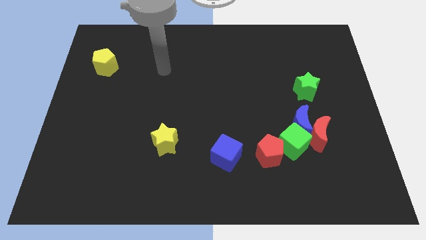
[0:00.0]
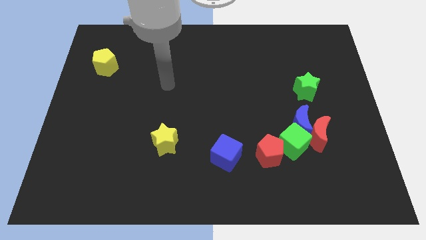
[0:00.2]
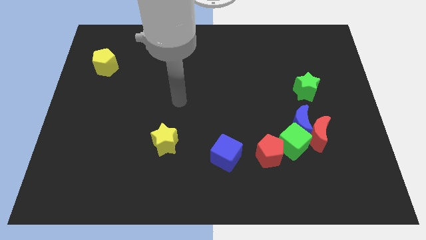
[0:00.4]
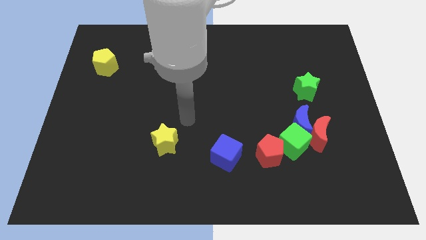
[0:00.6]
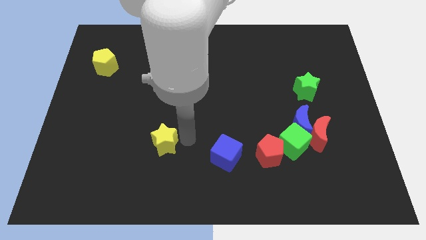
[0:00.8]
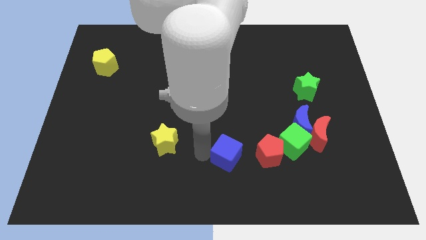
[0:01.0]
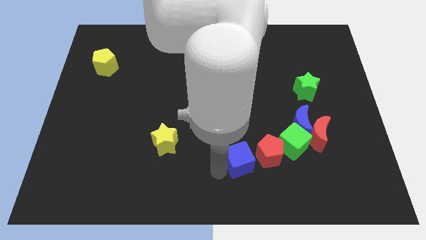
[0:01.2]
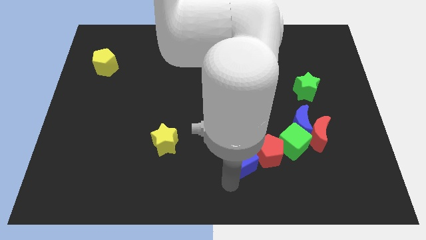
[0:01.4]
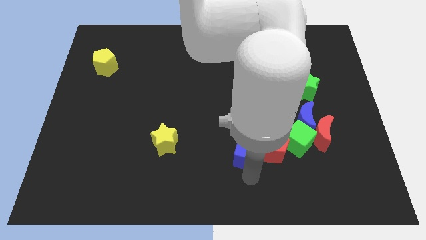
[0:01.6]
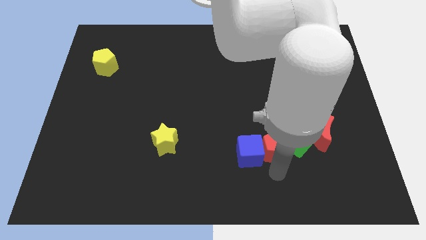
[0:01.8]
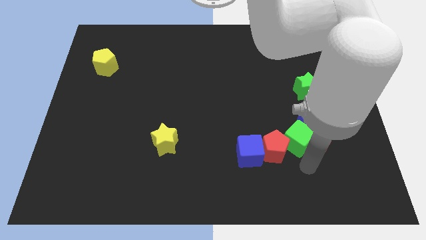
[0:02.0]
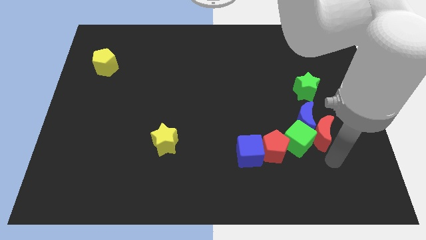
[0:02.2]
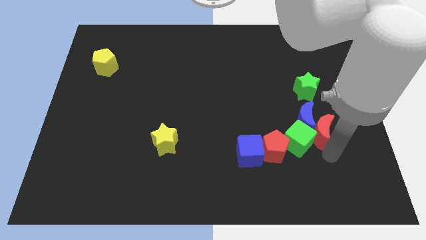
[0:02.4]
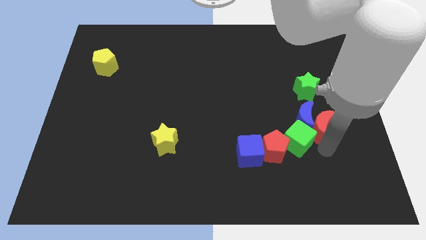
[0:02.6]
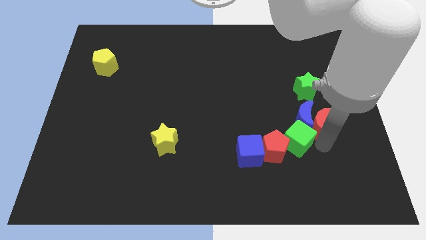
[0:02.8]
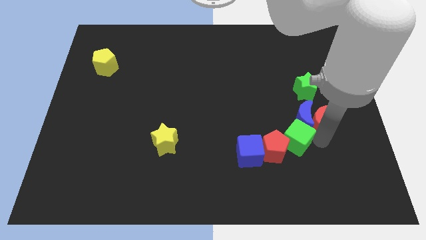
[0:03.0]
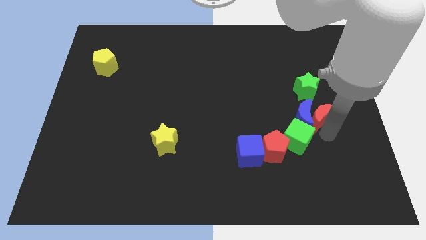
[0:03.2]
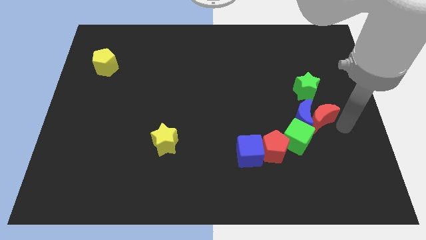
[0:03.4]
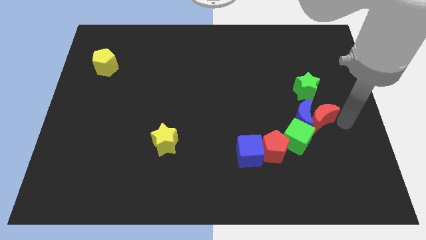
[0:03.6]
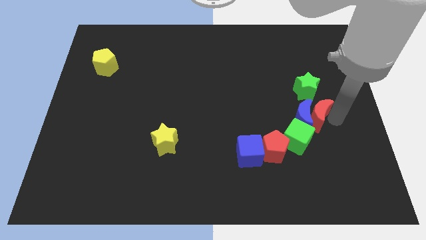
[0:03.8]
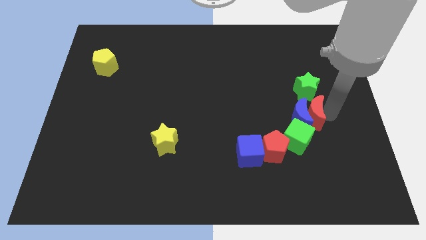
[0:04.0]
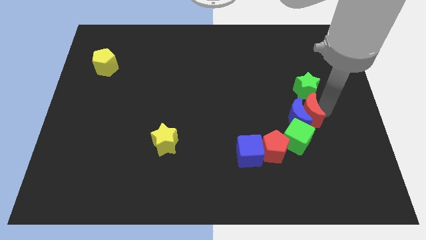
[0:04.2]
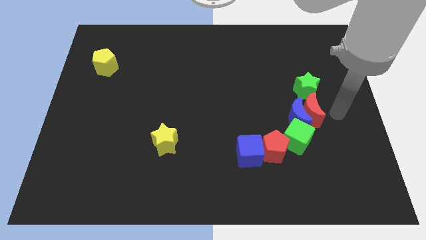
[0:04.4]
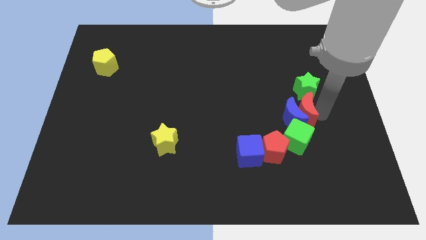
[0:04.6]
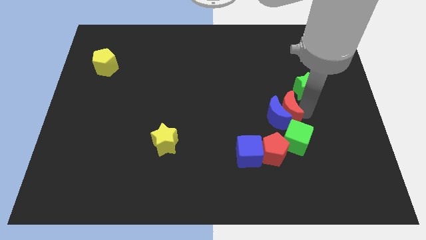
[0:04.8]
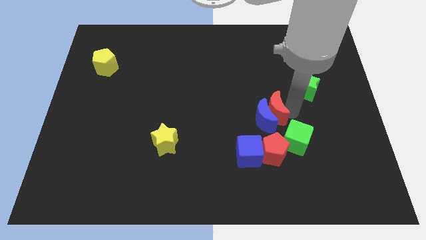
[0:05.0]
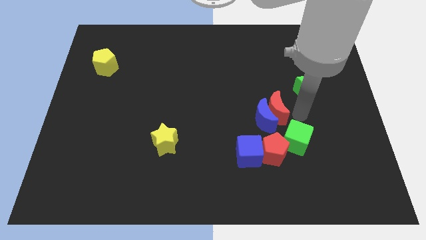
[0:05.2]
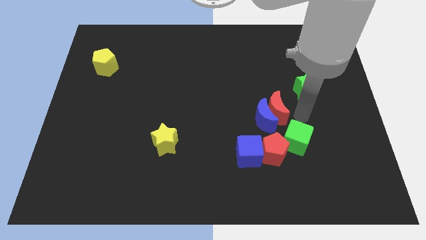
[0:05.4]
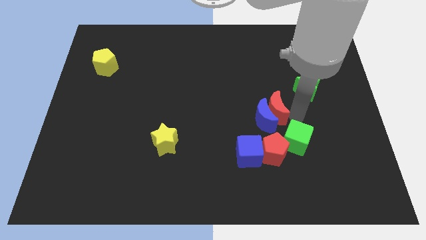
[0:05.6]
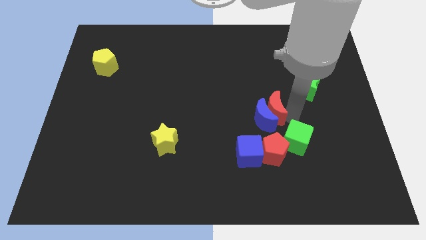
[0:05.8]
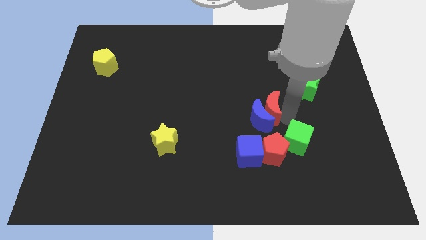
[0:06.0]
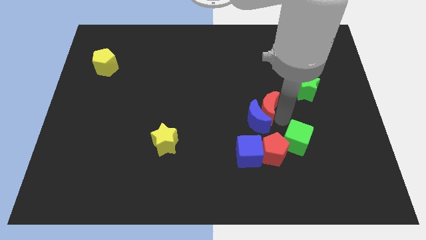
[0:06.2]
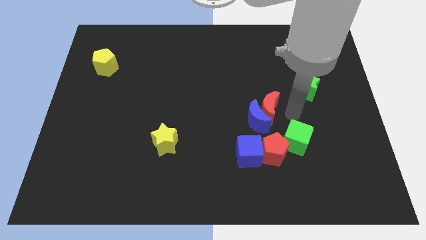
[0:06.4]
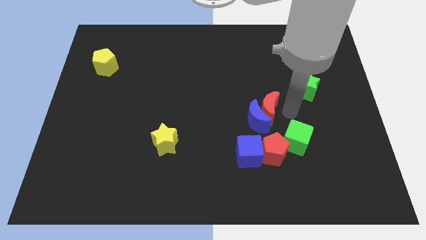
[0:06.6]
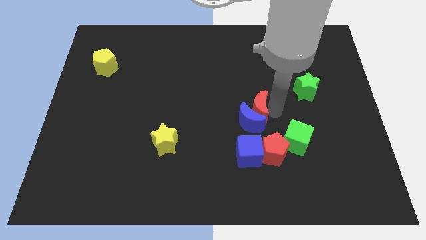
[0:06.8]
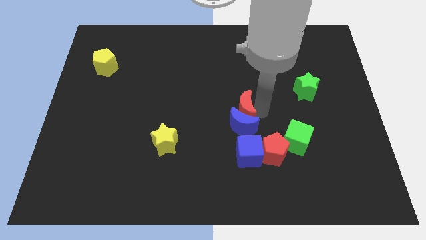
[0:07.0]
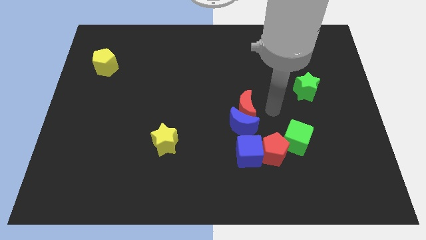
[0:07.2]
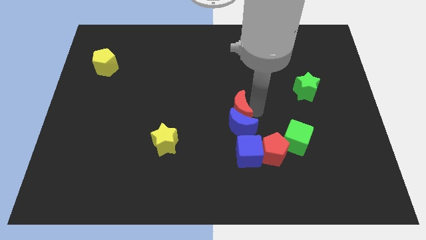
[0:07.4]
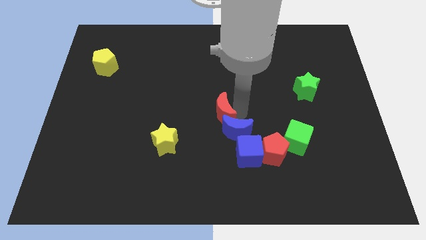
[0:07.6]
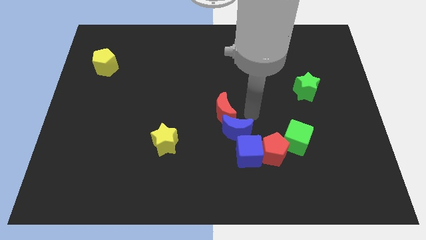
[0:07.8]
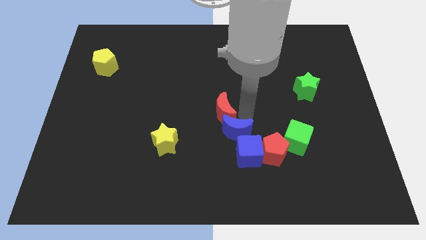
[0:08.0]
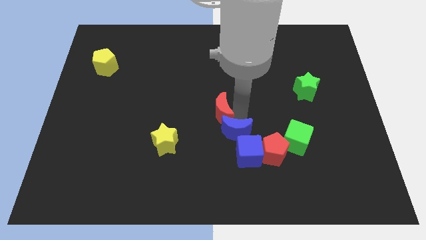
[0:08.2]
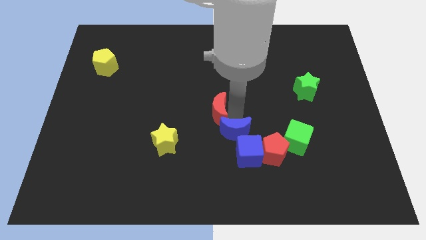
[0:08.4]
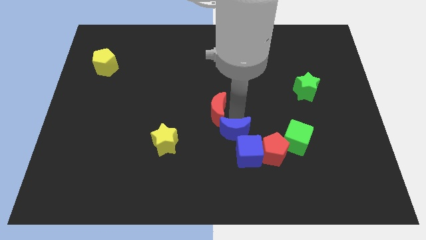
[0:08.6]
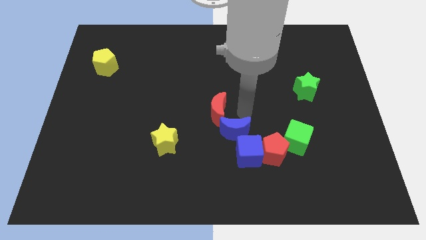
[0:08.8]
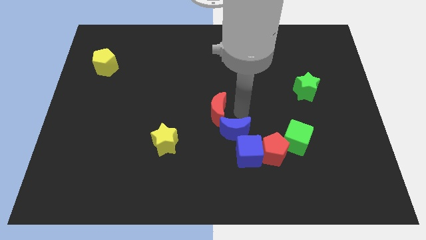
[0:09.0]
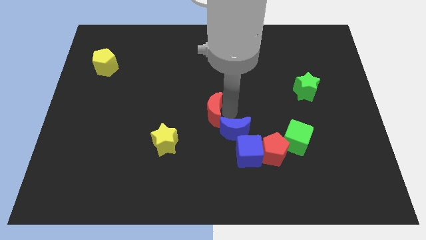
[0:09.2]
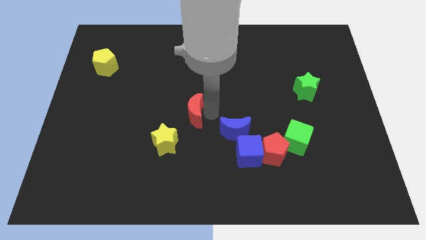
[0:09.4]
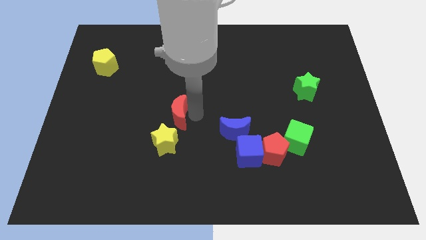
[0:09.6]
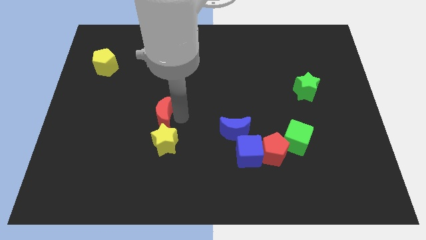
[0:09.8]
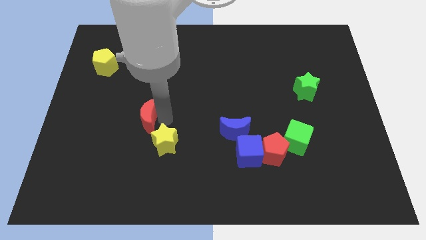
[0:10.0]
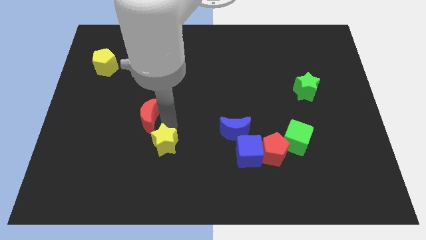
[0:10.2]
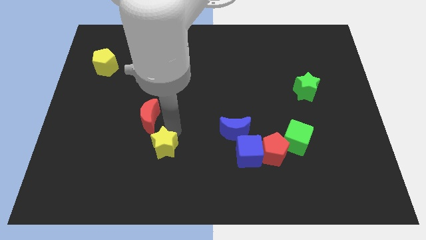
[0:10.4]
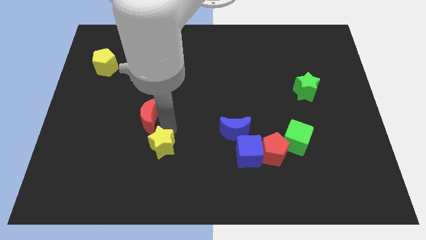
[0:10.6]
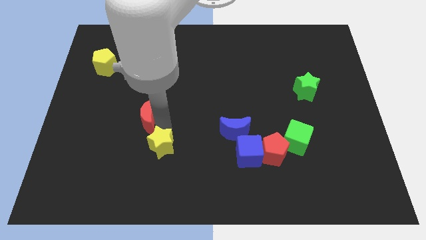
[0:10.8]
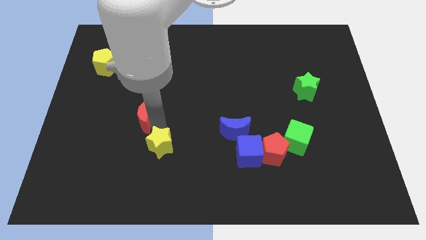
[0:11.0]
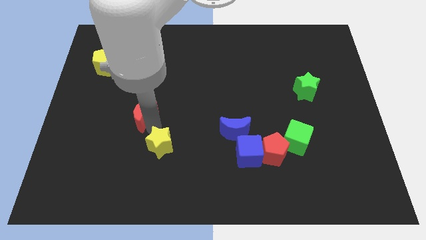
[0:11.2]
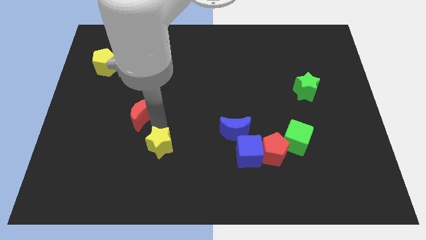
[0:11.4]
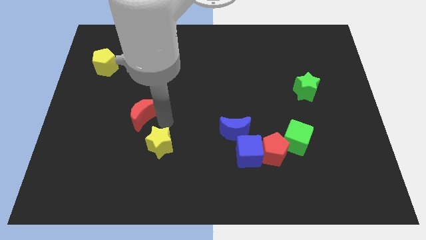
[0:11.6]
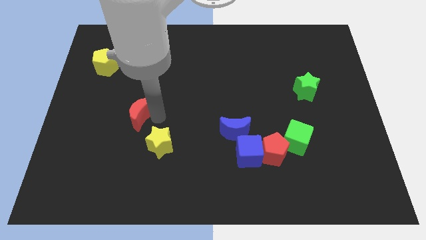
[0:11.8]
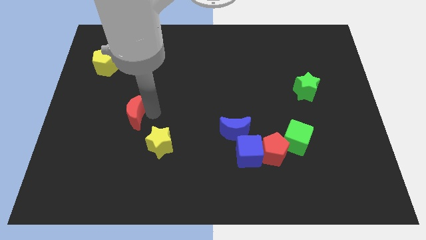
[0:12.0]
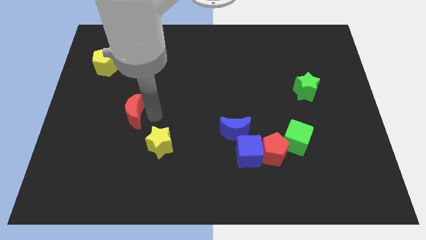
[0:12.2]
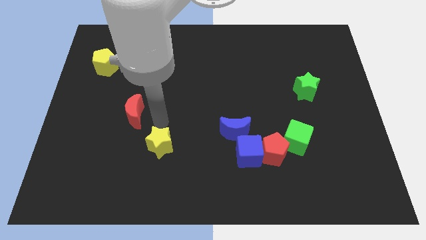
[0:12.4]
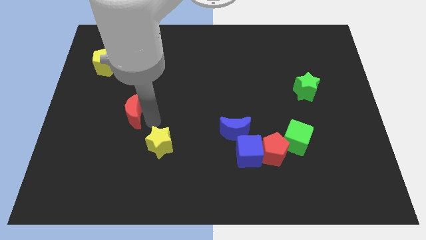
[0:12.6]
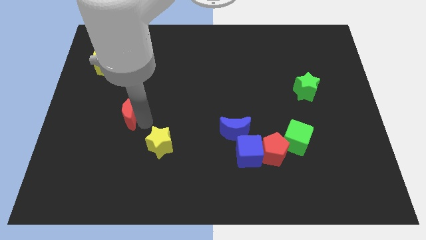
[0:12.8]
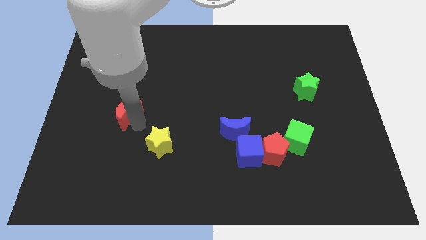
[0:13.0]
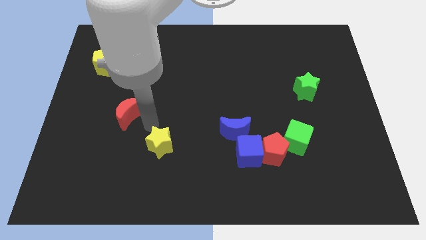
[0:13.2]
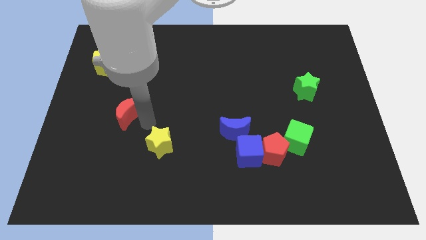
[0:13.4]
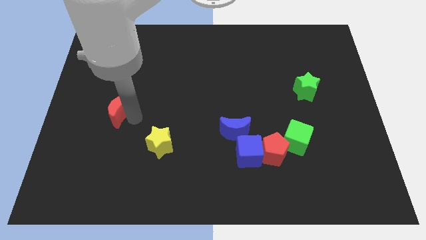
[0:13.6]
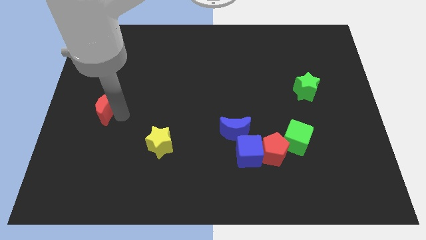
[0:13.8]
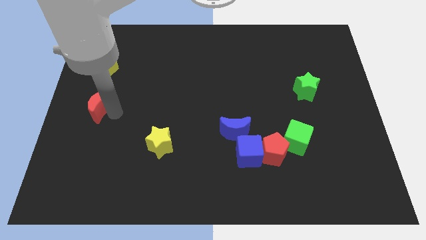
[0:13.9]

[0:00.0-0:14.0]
move the red moon to the center left

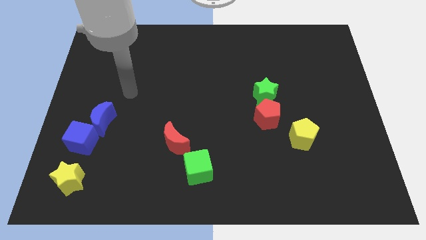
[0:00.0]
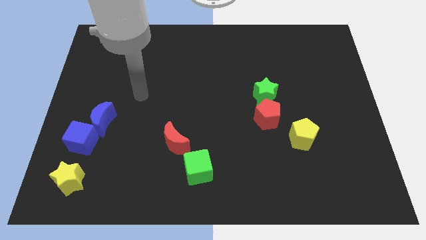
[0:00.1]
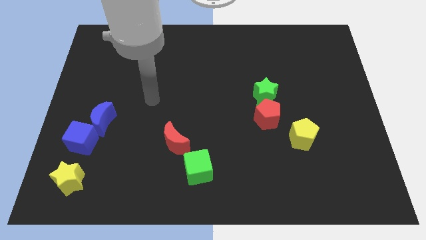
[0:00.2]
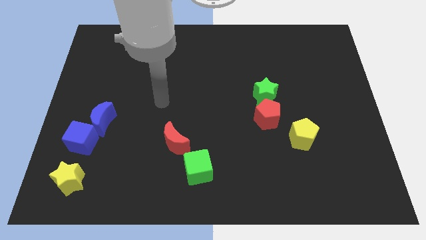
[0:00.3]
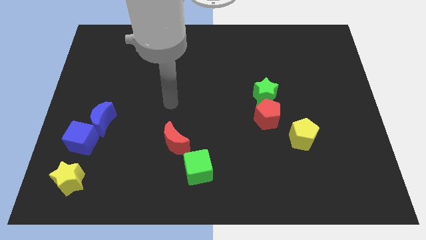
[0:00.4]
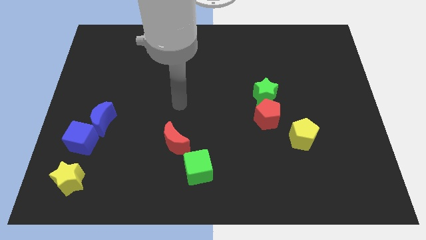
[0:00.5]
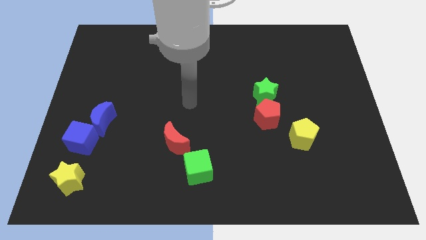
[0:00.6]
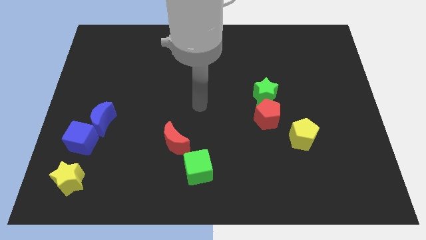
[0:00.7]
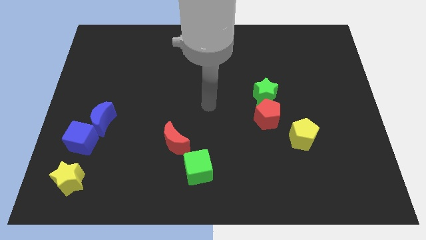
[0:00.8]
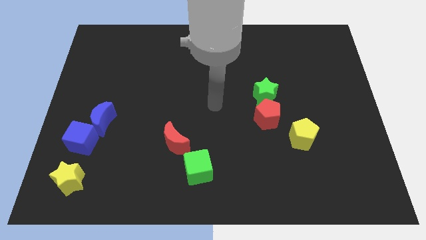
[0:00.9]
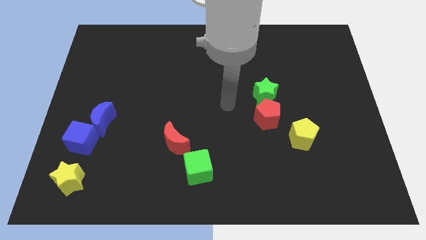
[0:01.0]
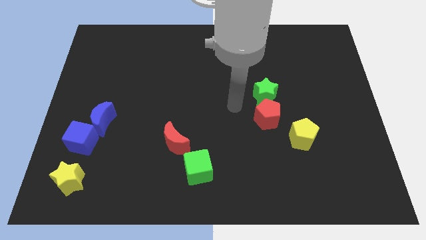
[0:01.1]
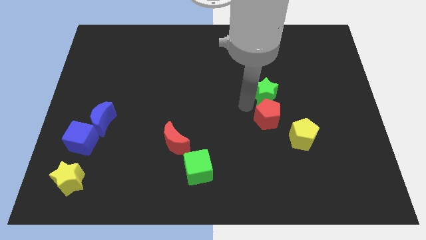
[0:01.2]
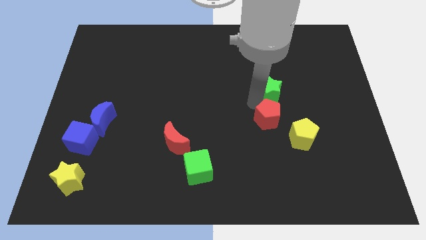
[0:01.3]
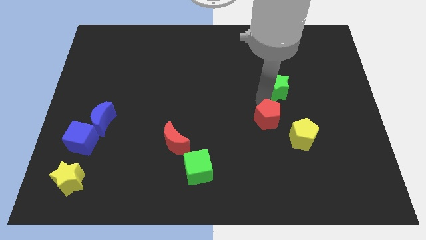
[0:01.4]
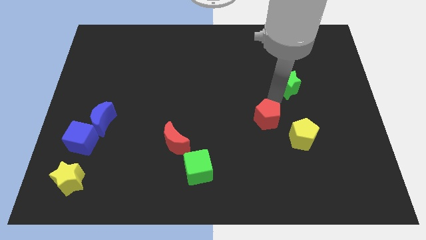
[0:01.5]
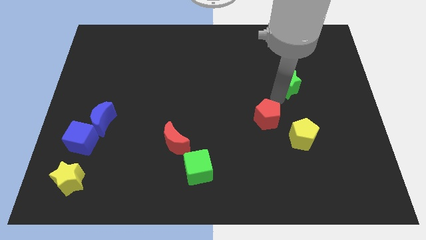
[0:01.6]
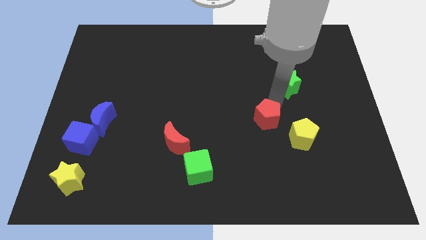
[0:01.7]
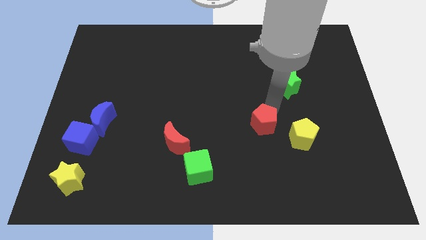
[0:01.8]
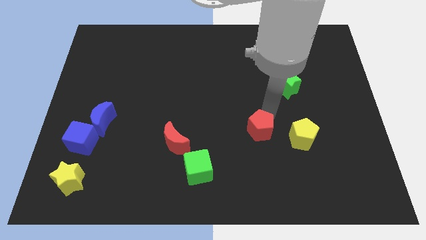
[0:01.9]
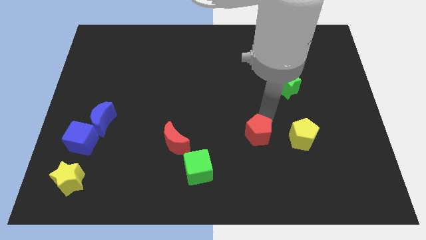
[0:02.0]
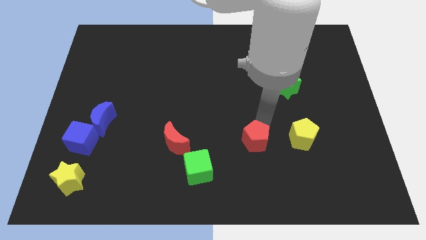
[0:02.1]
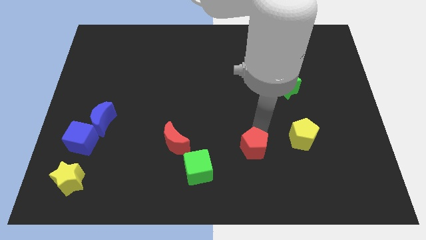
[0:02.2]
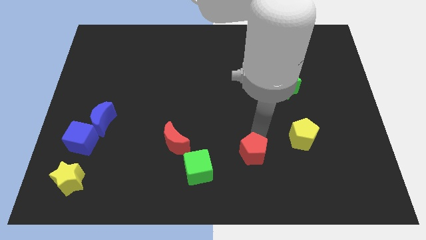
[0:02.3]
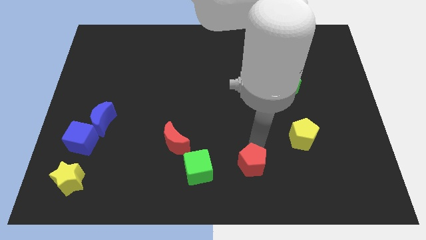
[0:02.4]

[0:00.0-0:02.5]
slide the red pentagon to the bottom side
